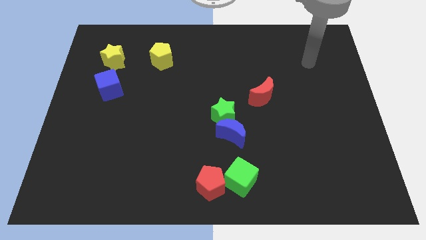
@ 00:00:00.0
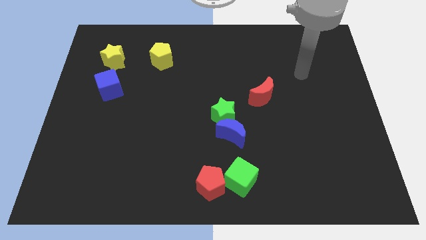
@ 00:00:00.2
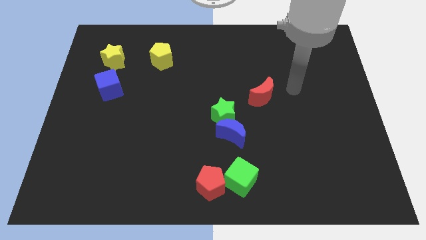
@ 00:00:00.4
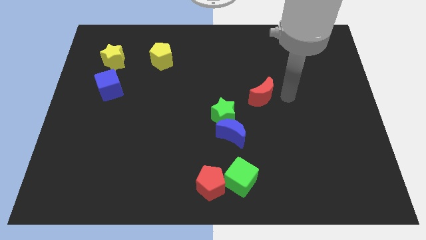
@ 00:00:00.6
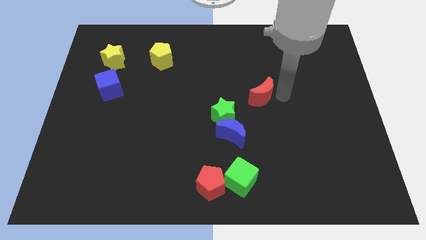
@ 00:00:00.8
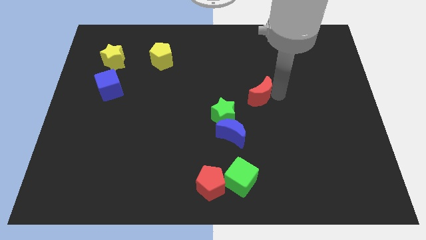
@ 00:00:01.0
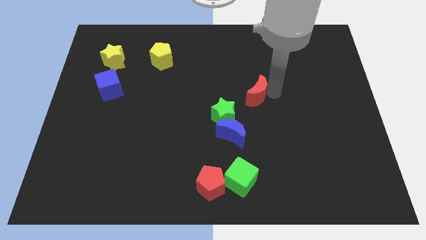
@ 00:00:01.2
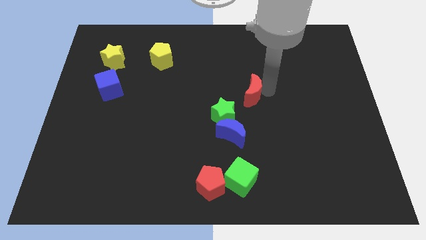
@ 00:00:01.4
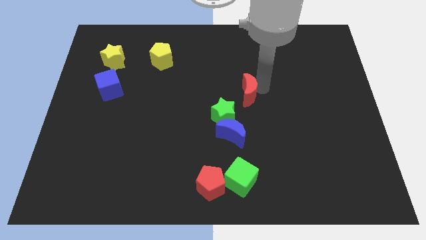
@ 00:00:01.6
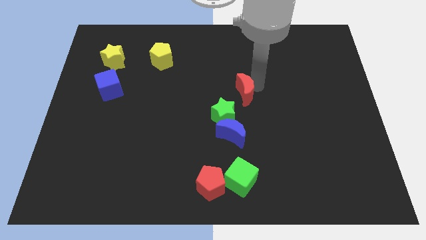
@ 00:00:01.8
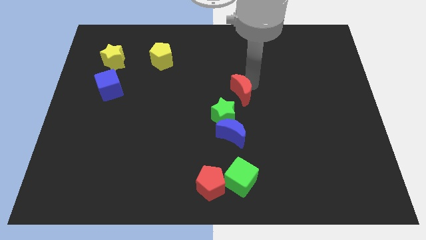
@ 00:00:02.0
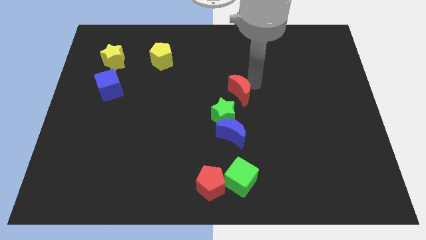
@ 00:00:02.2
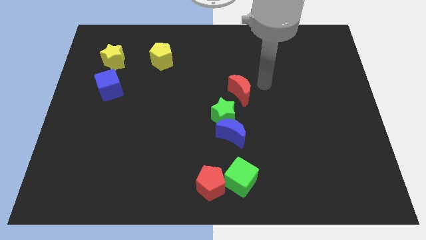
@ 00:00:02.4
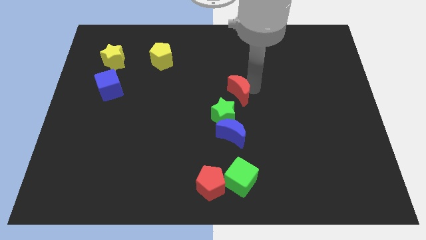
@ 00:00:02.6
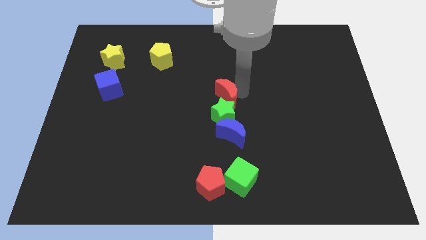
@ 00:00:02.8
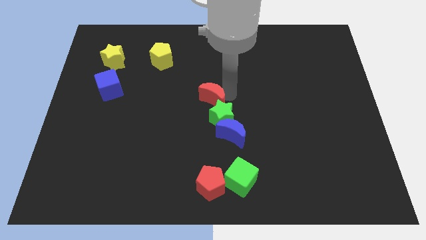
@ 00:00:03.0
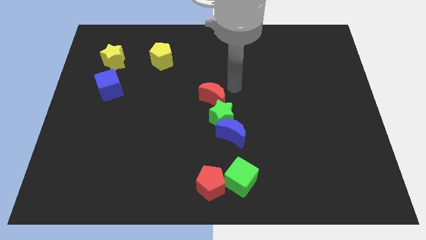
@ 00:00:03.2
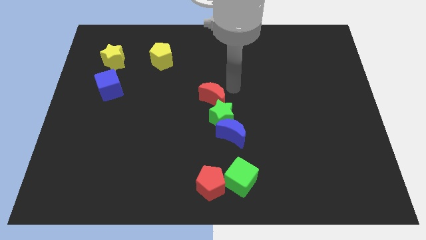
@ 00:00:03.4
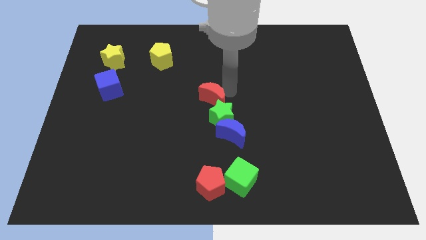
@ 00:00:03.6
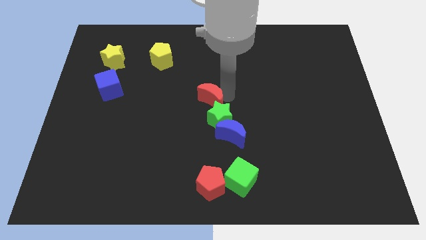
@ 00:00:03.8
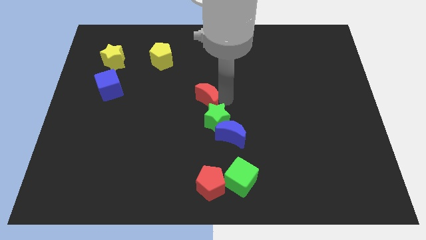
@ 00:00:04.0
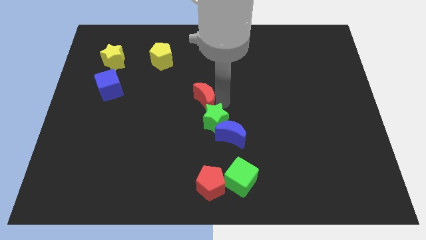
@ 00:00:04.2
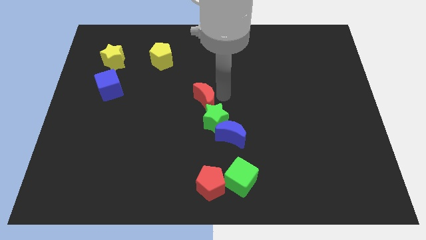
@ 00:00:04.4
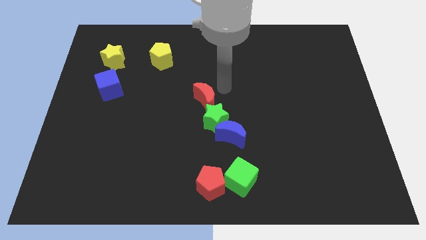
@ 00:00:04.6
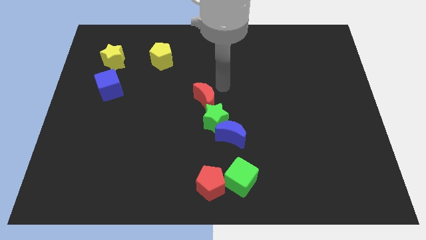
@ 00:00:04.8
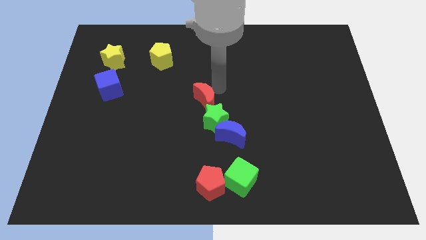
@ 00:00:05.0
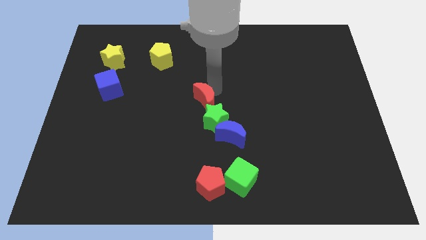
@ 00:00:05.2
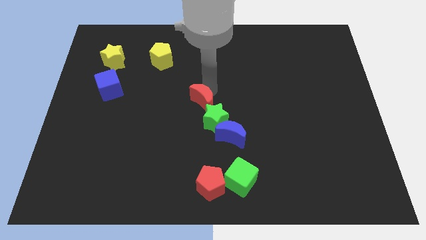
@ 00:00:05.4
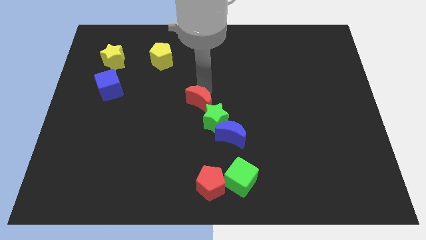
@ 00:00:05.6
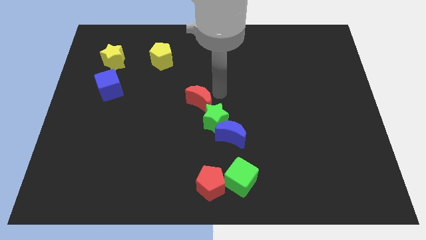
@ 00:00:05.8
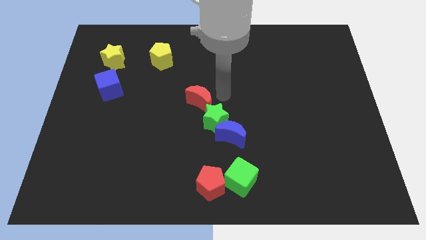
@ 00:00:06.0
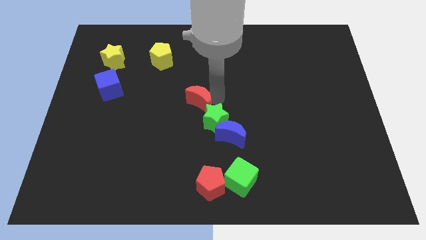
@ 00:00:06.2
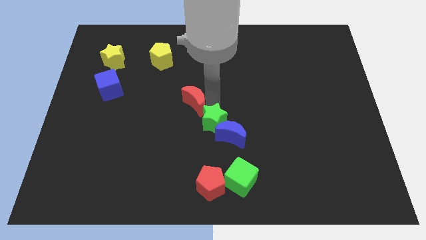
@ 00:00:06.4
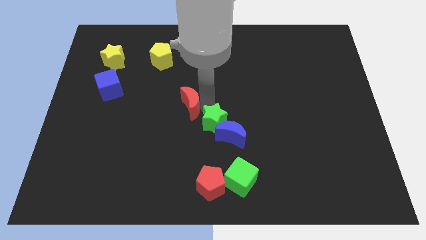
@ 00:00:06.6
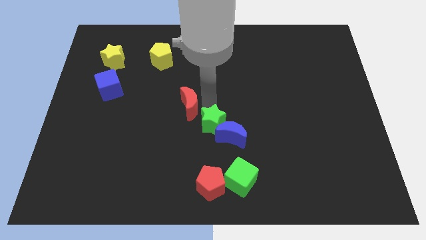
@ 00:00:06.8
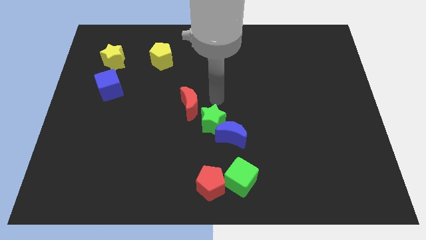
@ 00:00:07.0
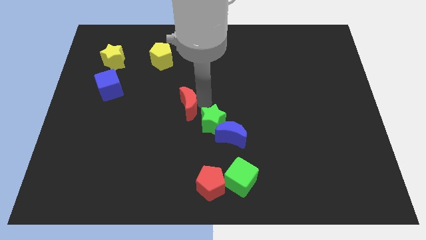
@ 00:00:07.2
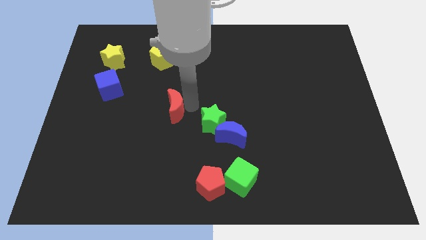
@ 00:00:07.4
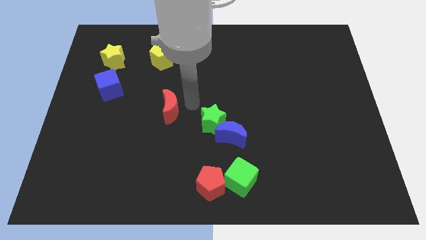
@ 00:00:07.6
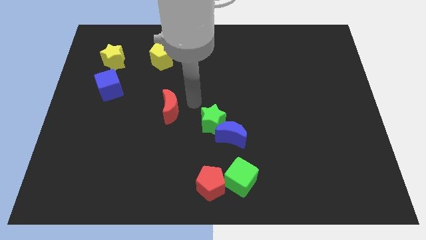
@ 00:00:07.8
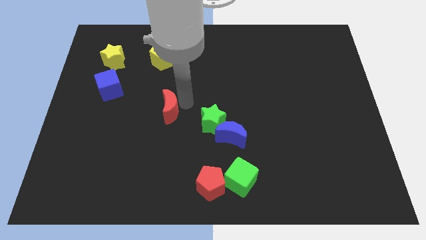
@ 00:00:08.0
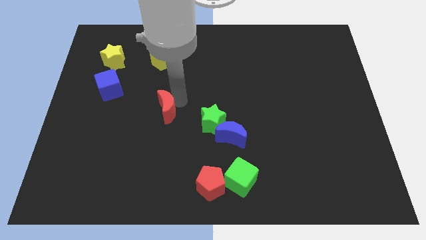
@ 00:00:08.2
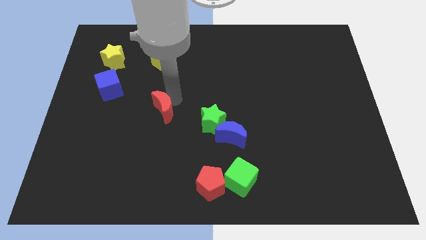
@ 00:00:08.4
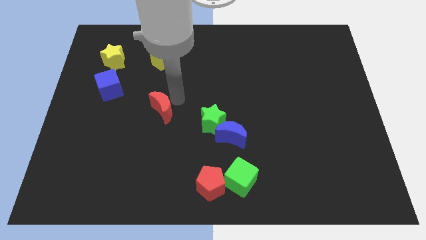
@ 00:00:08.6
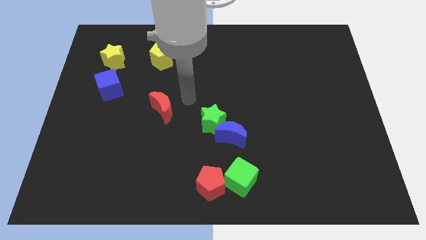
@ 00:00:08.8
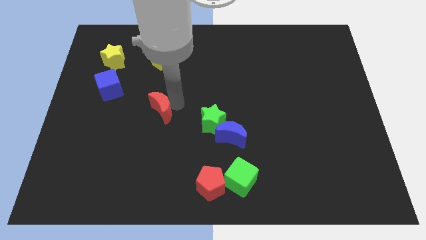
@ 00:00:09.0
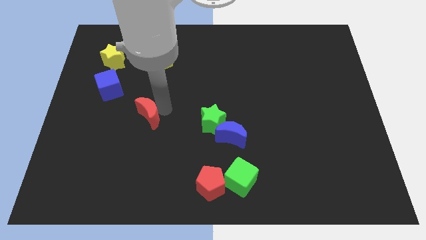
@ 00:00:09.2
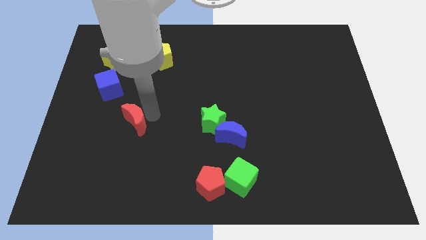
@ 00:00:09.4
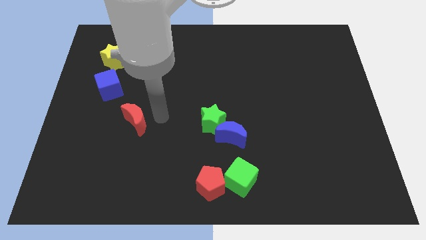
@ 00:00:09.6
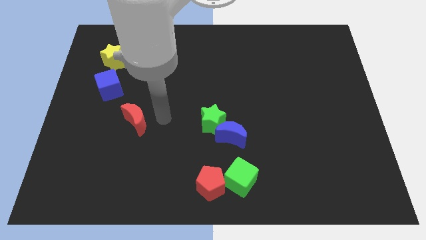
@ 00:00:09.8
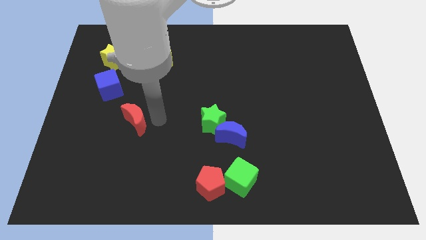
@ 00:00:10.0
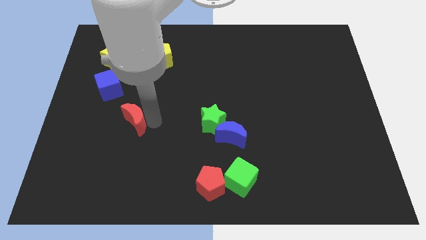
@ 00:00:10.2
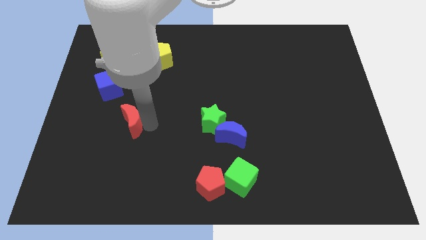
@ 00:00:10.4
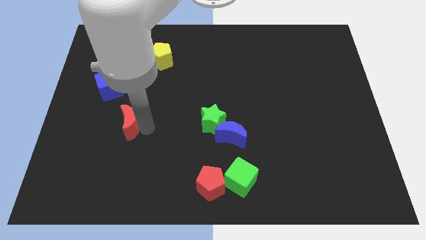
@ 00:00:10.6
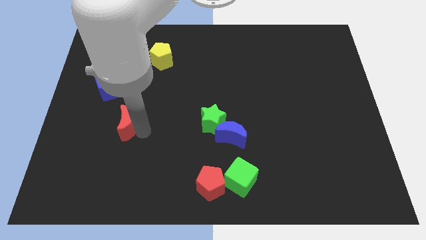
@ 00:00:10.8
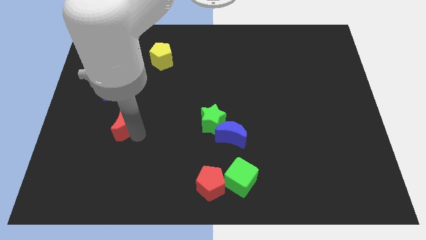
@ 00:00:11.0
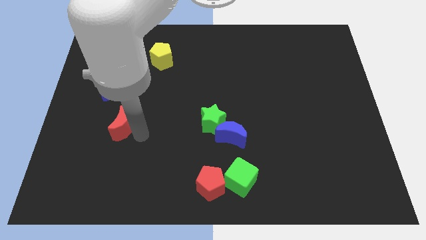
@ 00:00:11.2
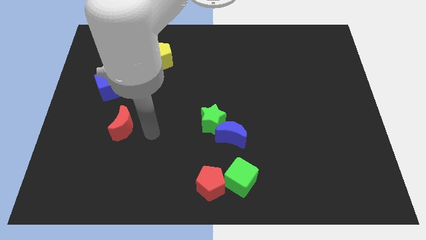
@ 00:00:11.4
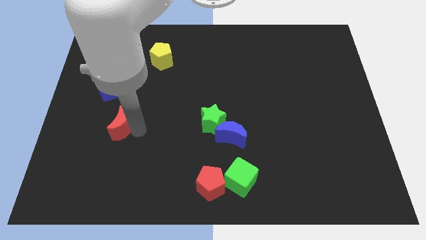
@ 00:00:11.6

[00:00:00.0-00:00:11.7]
push the red moon to the bottom of the blue cube

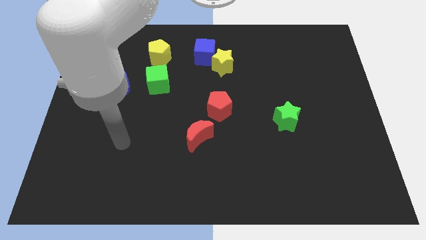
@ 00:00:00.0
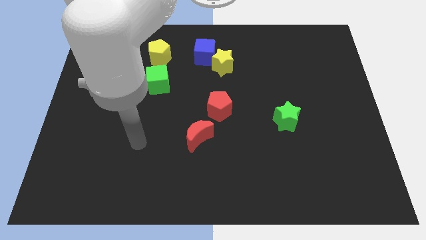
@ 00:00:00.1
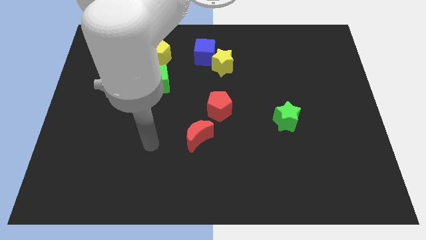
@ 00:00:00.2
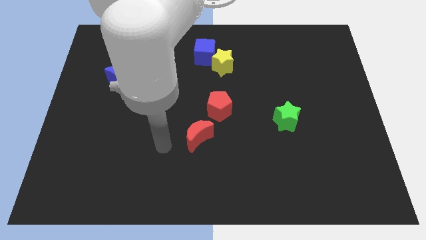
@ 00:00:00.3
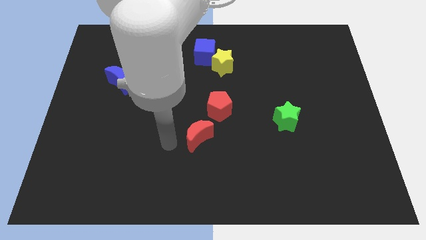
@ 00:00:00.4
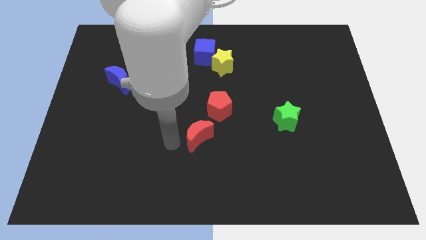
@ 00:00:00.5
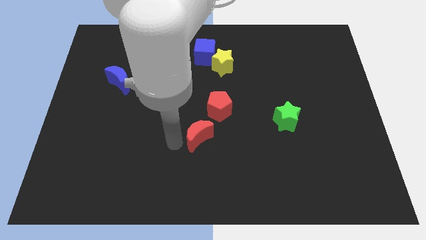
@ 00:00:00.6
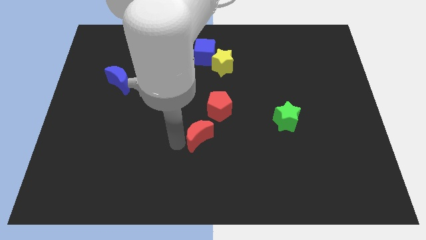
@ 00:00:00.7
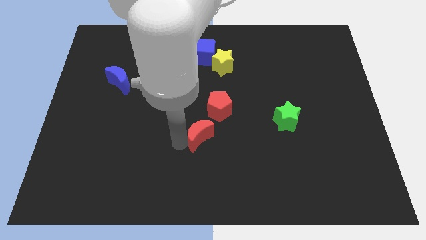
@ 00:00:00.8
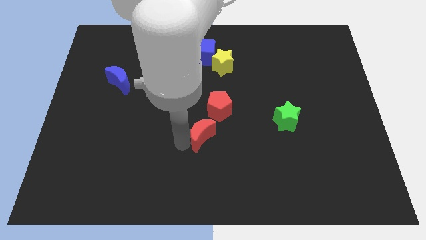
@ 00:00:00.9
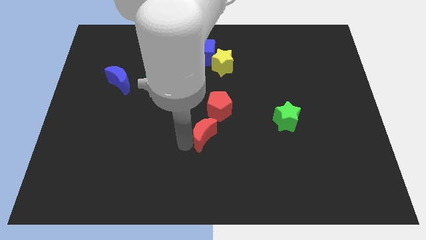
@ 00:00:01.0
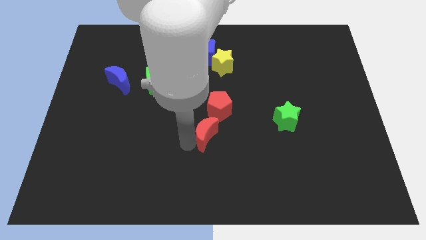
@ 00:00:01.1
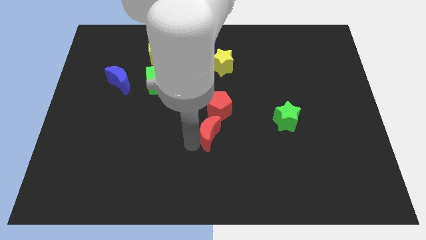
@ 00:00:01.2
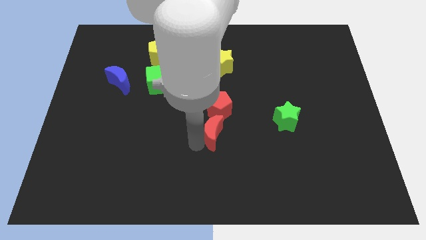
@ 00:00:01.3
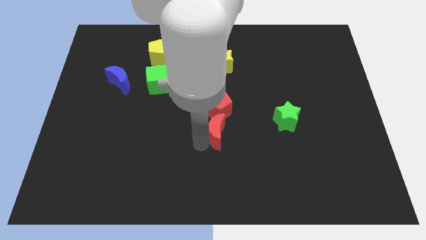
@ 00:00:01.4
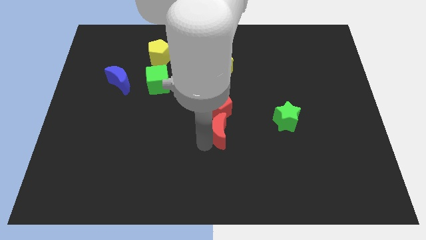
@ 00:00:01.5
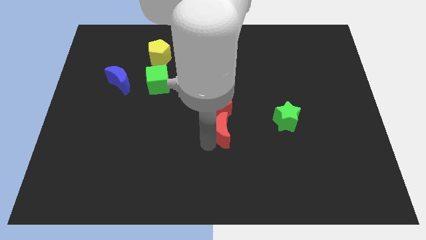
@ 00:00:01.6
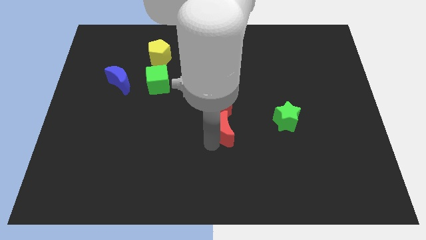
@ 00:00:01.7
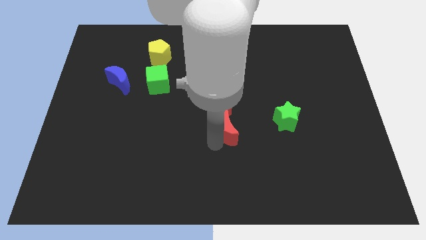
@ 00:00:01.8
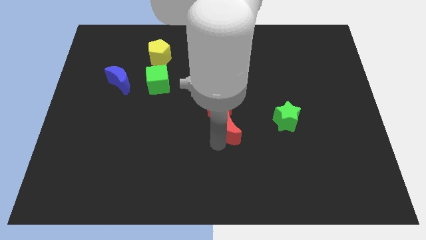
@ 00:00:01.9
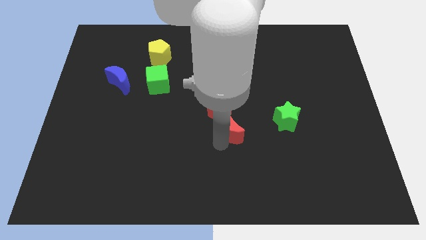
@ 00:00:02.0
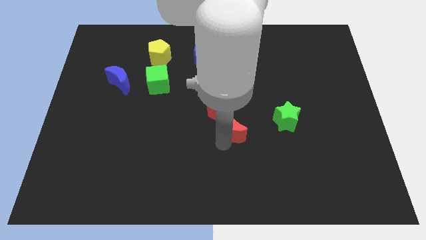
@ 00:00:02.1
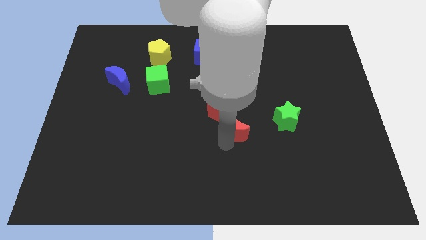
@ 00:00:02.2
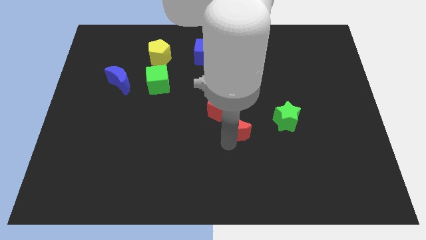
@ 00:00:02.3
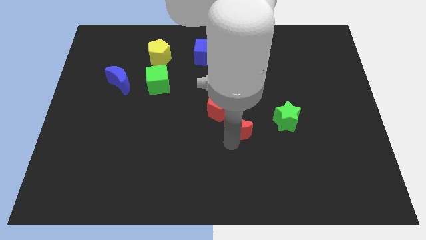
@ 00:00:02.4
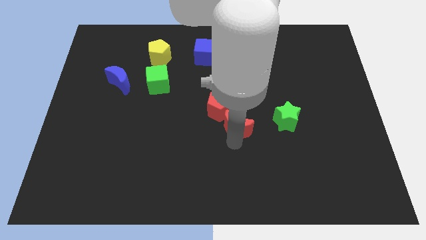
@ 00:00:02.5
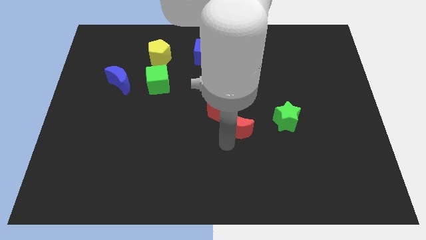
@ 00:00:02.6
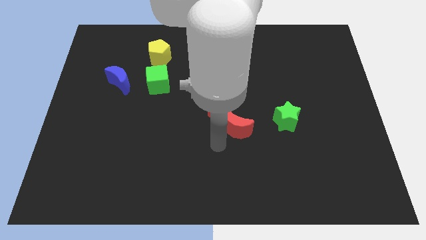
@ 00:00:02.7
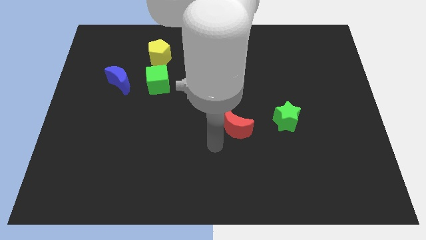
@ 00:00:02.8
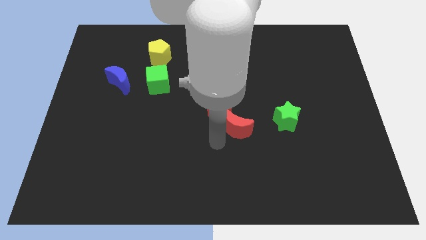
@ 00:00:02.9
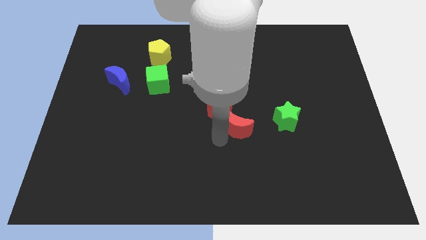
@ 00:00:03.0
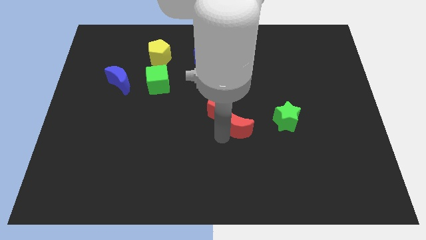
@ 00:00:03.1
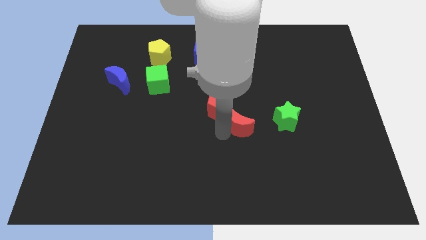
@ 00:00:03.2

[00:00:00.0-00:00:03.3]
slide the red moon to the right side of the red pentagon
